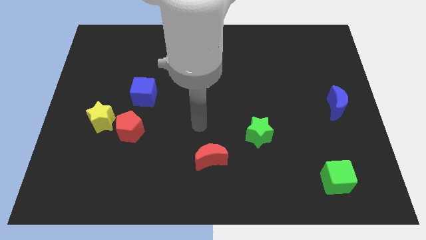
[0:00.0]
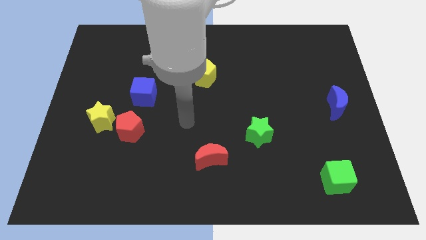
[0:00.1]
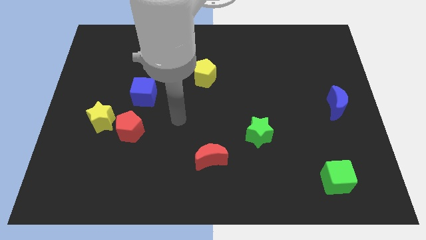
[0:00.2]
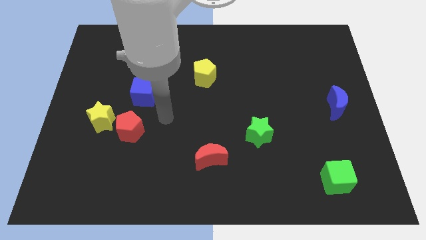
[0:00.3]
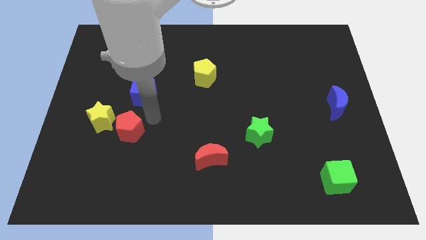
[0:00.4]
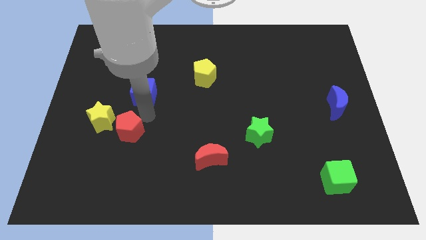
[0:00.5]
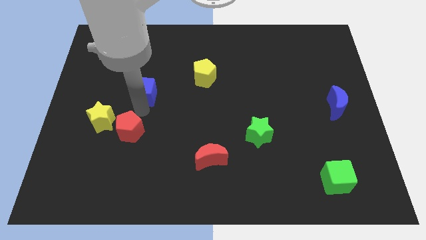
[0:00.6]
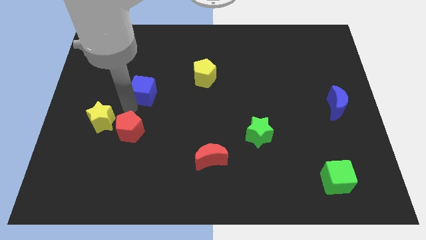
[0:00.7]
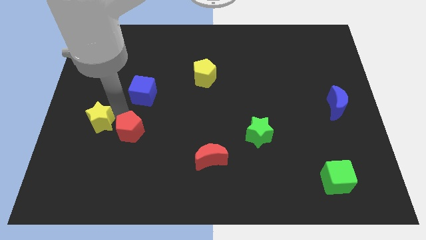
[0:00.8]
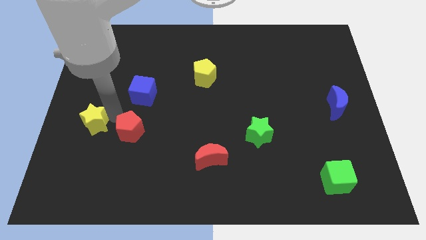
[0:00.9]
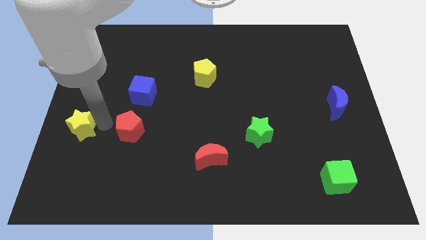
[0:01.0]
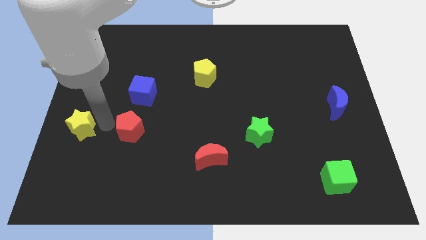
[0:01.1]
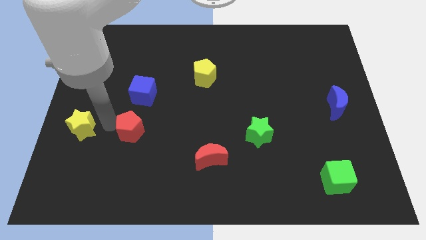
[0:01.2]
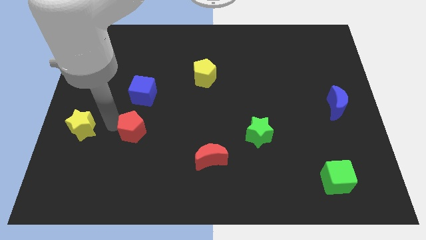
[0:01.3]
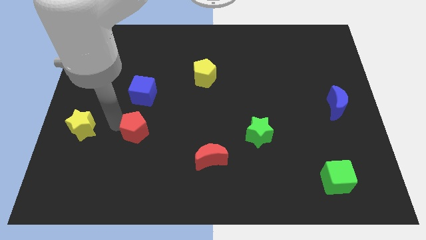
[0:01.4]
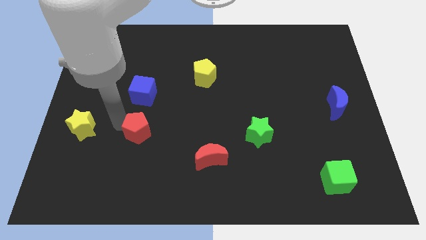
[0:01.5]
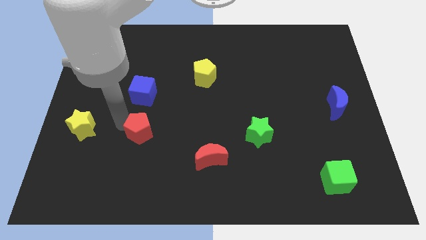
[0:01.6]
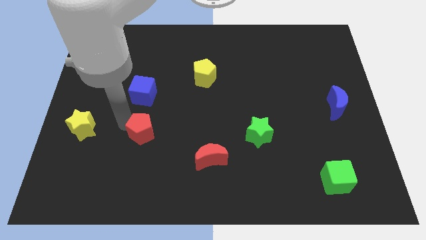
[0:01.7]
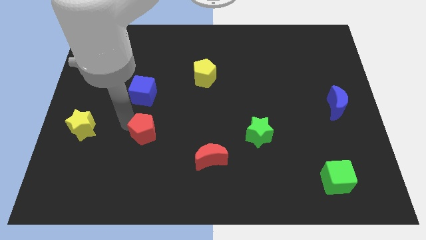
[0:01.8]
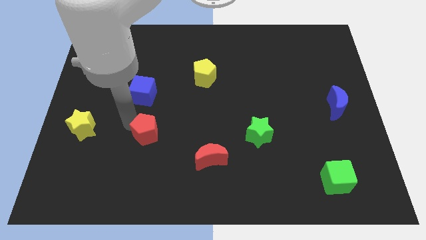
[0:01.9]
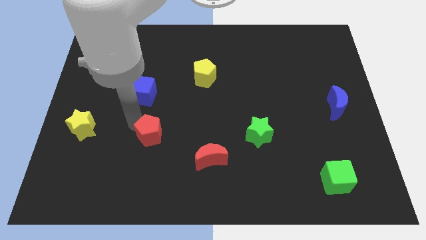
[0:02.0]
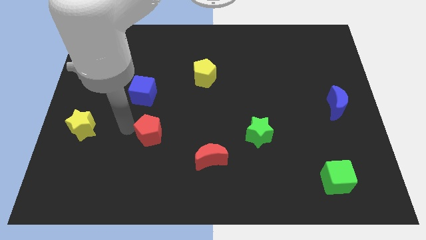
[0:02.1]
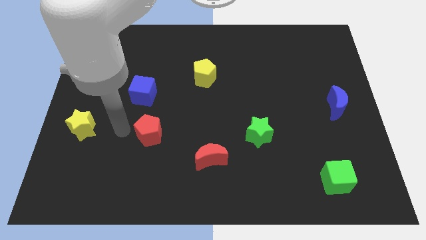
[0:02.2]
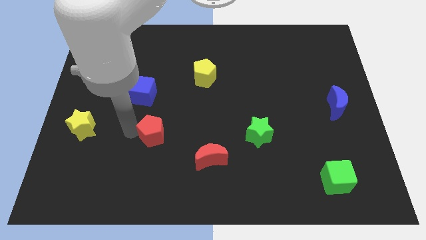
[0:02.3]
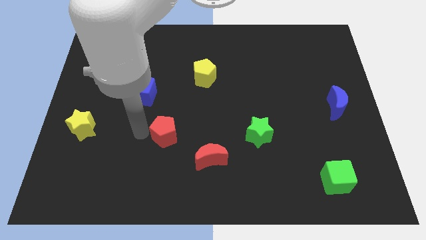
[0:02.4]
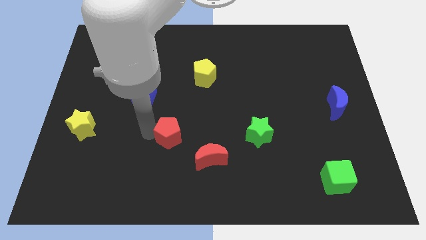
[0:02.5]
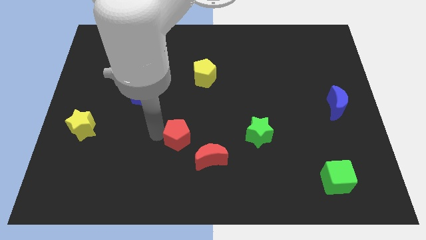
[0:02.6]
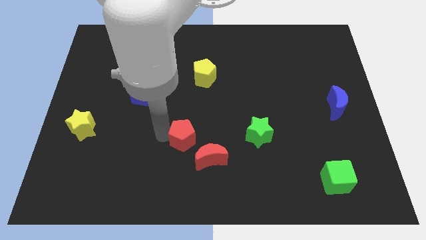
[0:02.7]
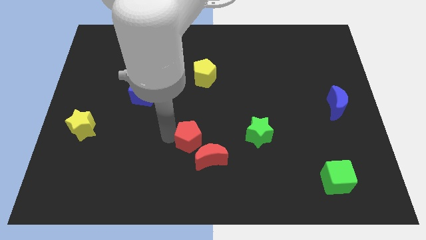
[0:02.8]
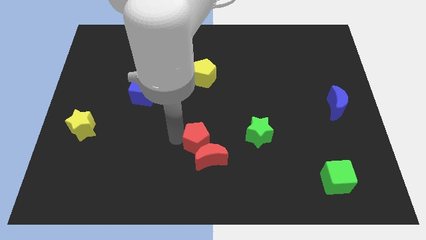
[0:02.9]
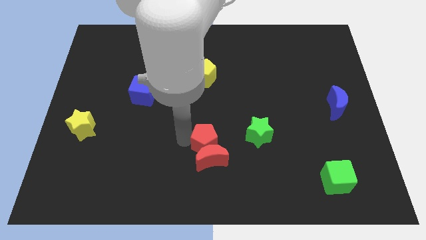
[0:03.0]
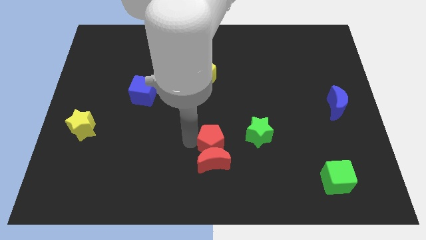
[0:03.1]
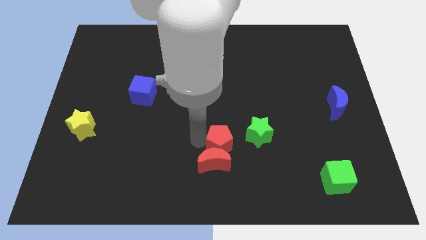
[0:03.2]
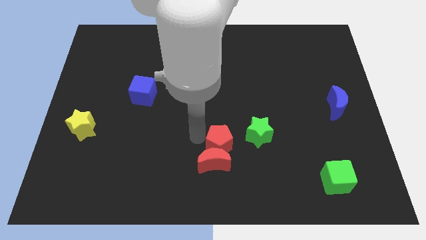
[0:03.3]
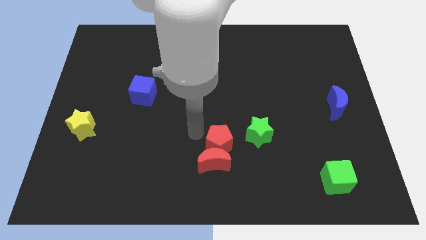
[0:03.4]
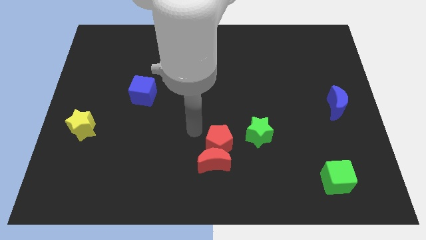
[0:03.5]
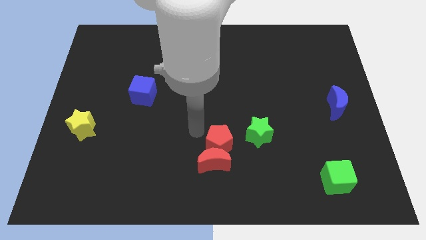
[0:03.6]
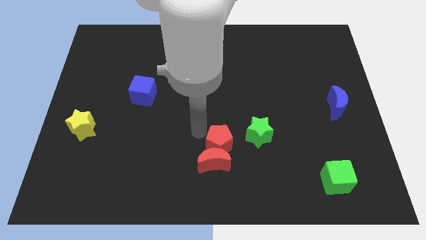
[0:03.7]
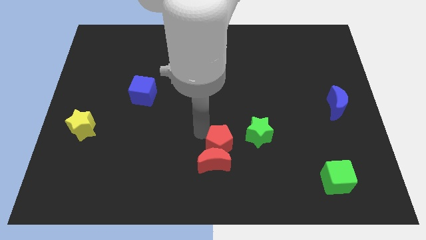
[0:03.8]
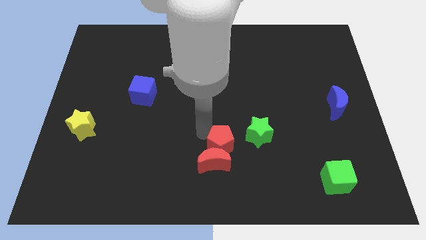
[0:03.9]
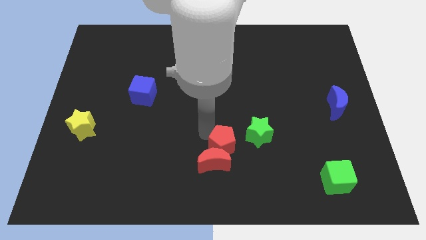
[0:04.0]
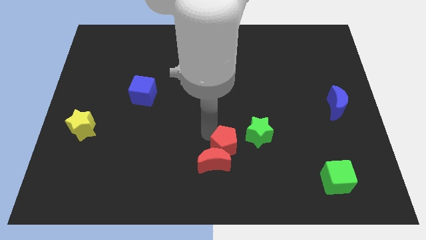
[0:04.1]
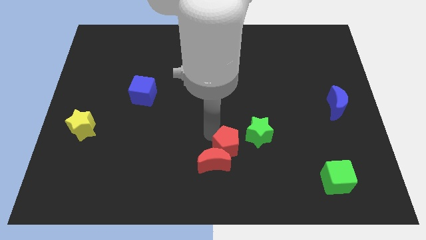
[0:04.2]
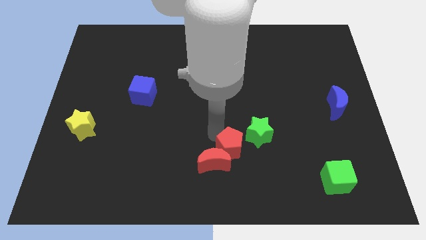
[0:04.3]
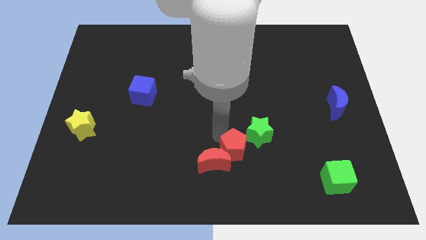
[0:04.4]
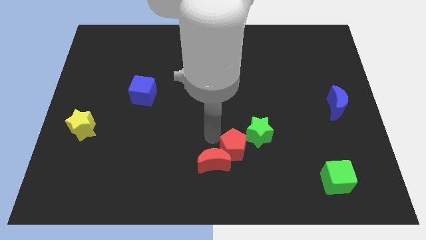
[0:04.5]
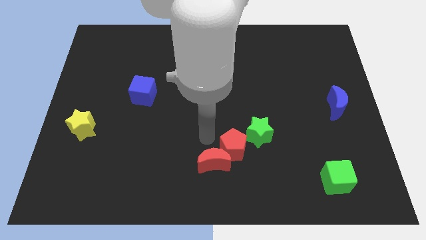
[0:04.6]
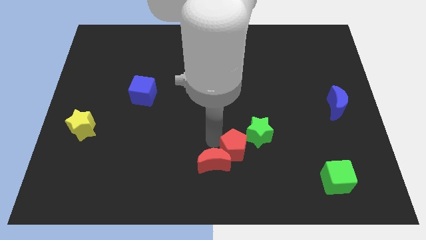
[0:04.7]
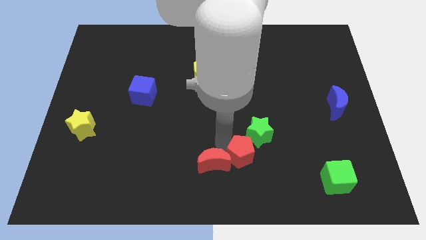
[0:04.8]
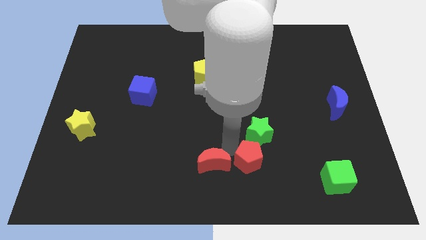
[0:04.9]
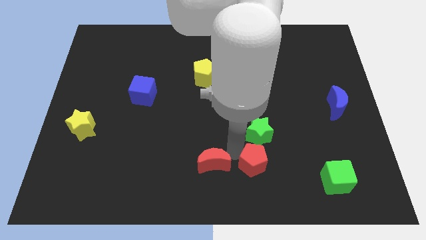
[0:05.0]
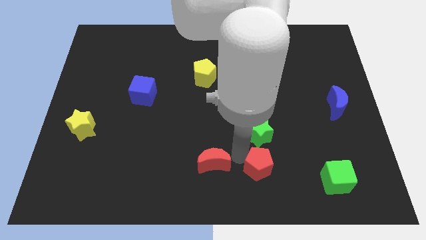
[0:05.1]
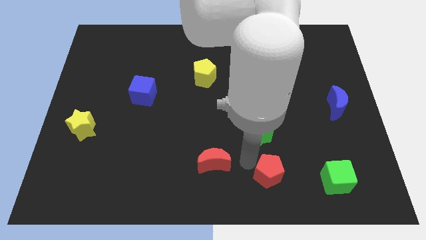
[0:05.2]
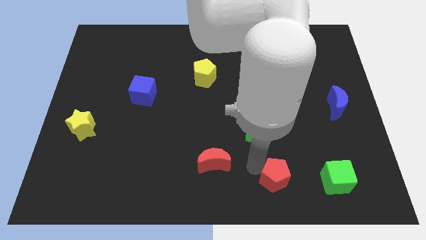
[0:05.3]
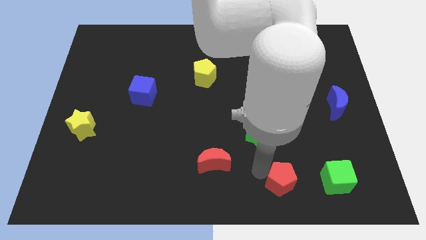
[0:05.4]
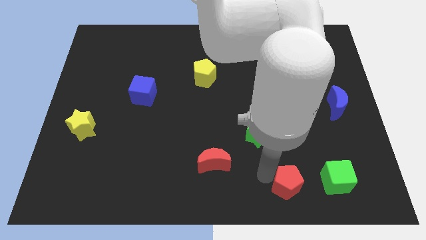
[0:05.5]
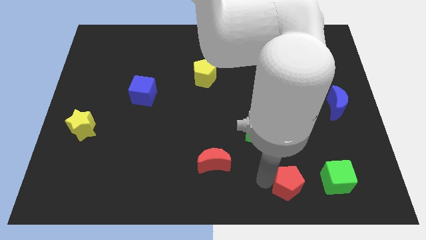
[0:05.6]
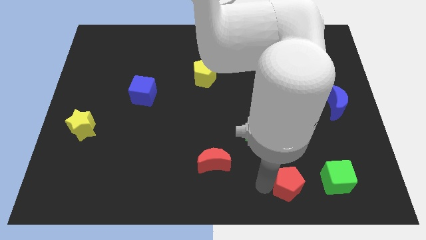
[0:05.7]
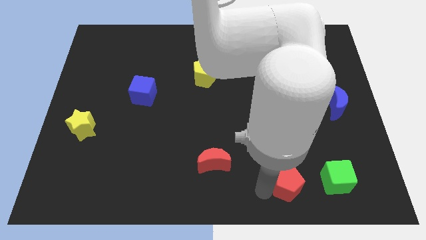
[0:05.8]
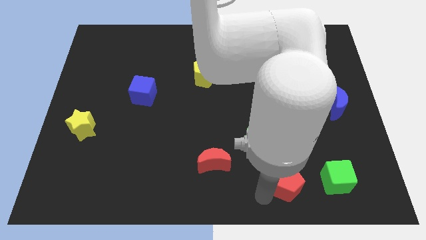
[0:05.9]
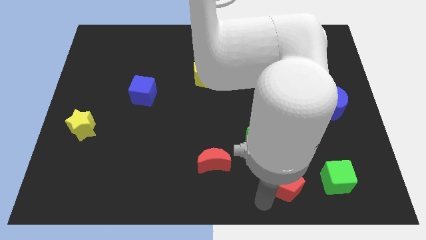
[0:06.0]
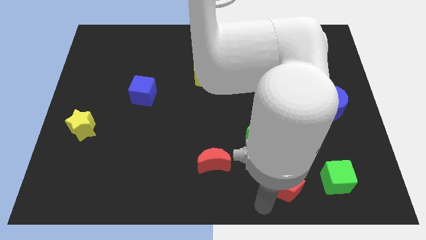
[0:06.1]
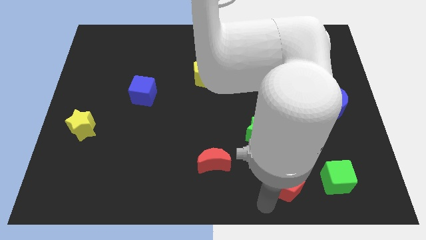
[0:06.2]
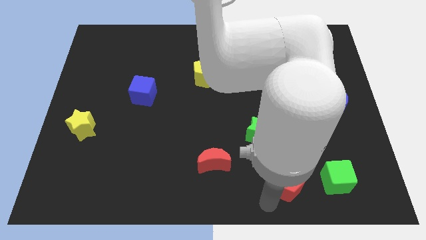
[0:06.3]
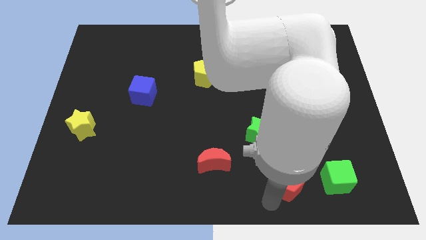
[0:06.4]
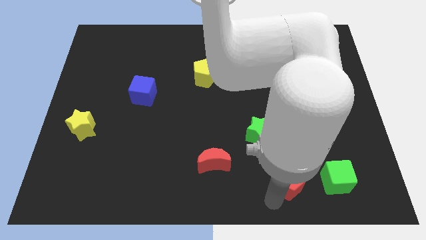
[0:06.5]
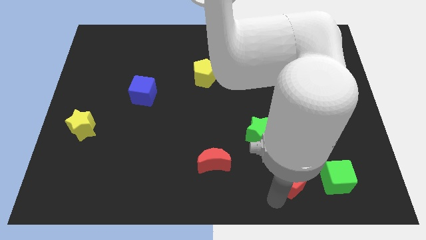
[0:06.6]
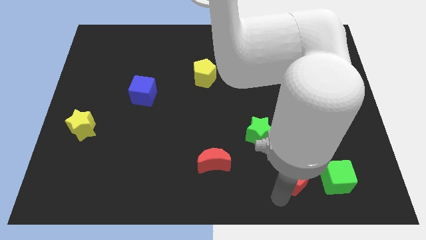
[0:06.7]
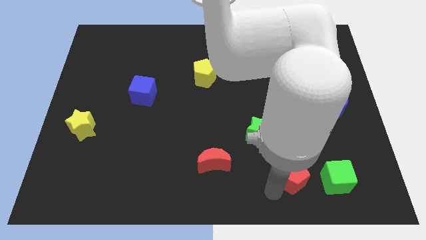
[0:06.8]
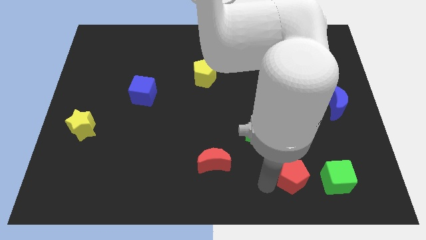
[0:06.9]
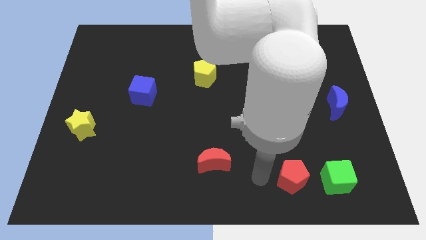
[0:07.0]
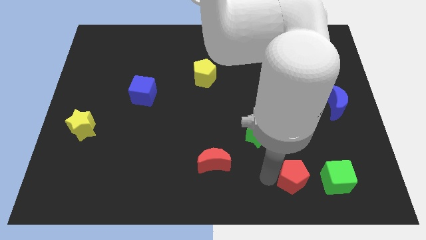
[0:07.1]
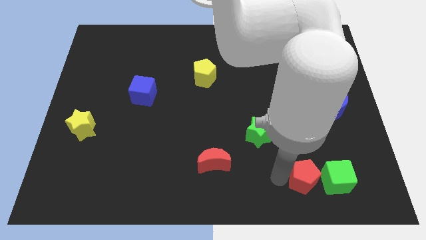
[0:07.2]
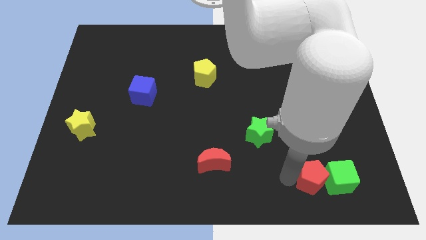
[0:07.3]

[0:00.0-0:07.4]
slide the red pentagon towards the green cube

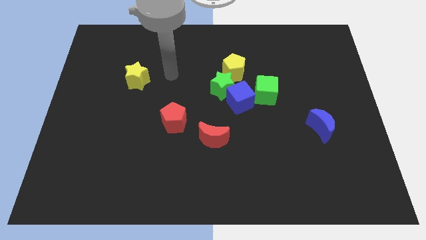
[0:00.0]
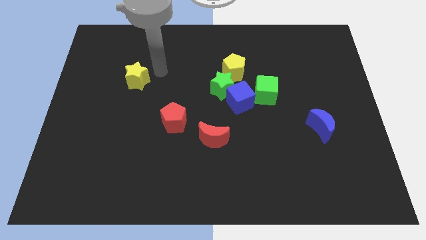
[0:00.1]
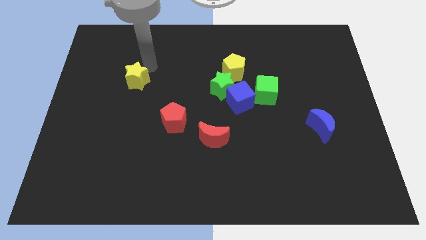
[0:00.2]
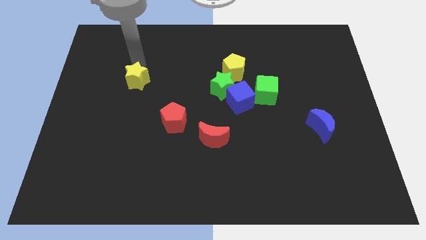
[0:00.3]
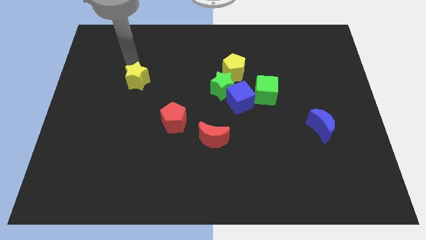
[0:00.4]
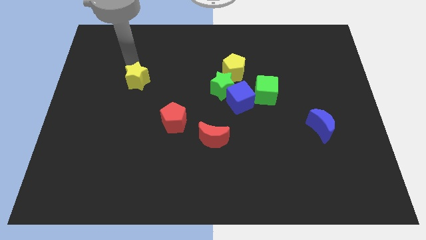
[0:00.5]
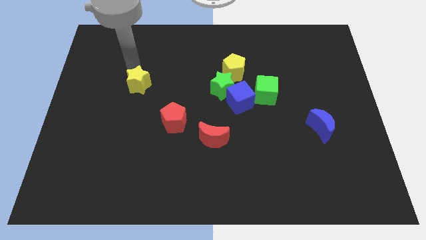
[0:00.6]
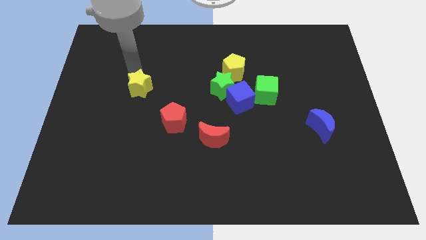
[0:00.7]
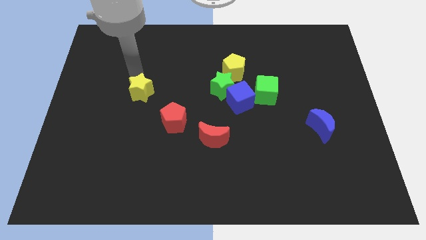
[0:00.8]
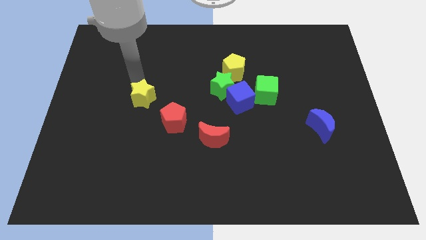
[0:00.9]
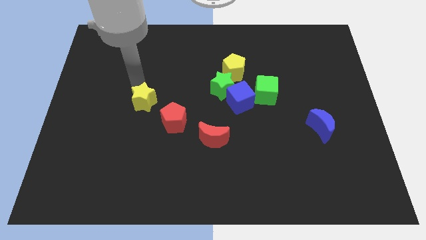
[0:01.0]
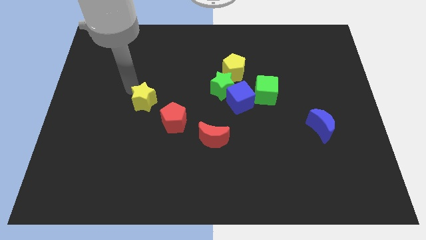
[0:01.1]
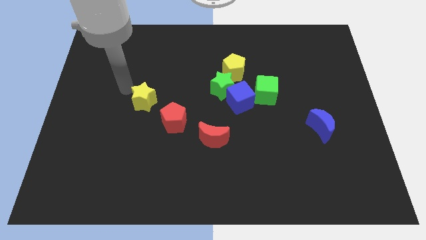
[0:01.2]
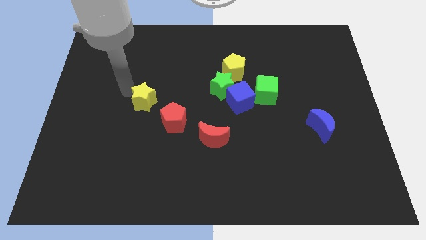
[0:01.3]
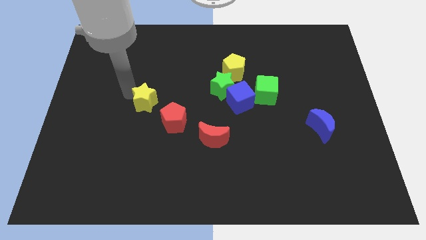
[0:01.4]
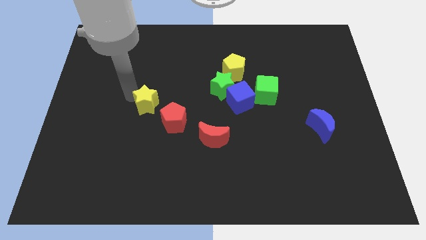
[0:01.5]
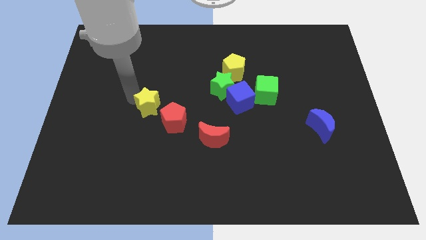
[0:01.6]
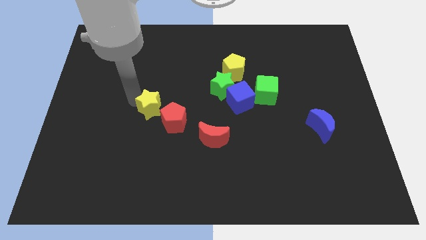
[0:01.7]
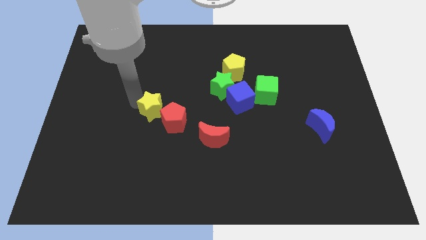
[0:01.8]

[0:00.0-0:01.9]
push the yellow star close to the red pentagon
